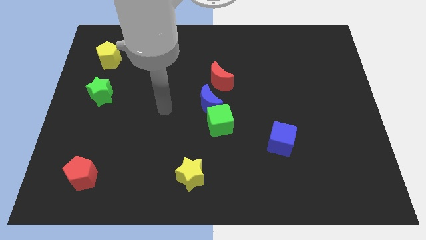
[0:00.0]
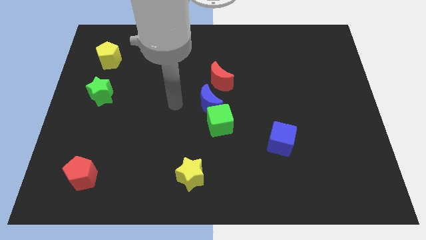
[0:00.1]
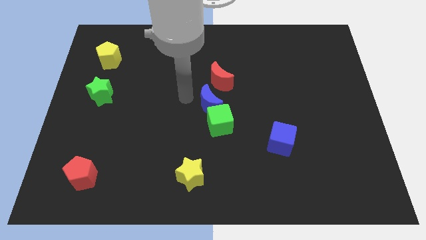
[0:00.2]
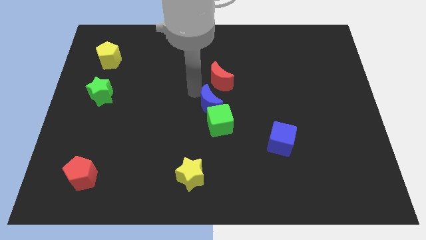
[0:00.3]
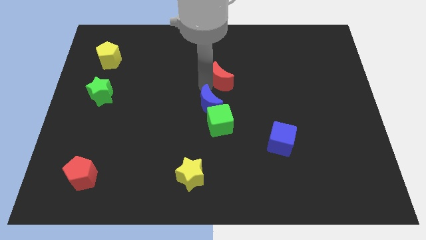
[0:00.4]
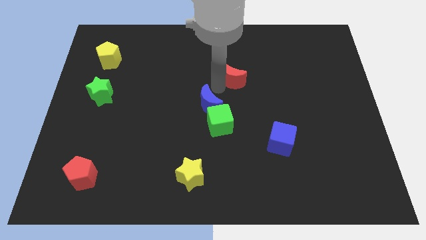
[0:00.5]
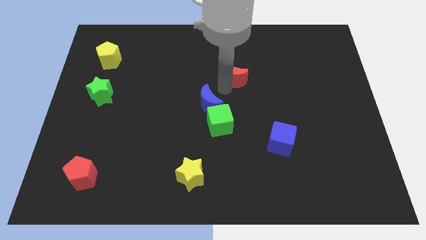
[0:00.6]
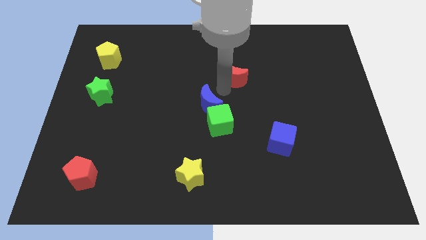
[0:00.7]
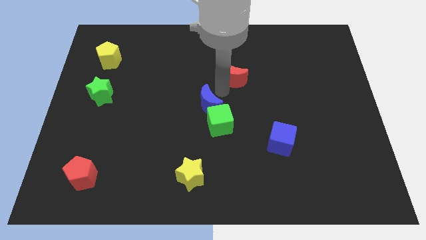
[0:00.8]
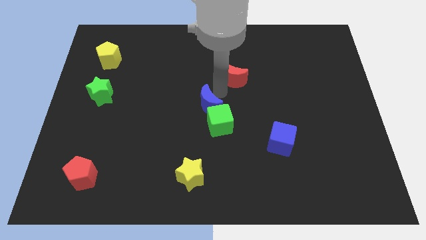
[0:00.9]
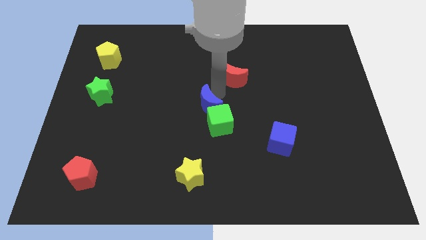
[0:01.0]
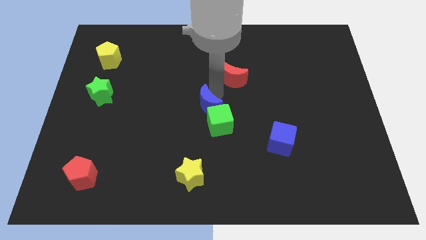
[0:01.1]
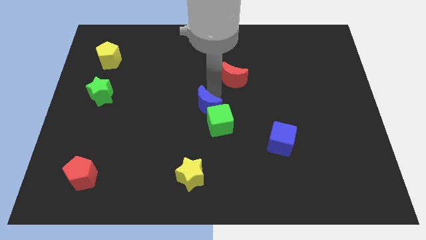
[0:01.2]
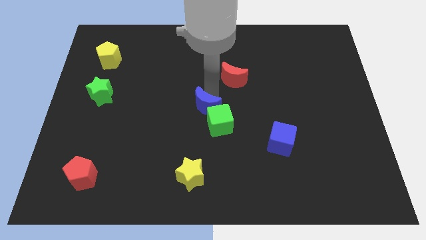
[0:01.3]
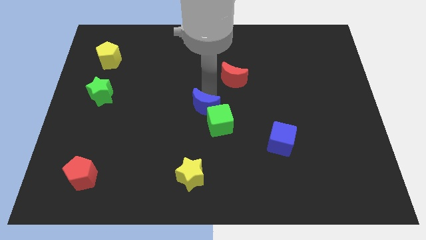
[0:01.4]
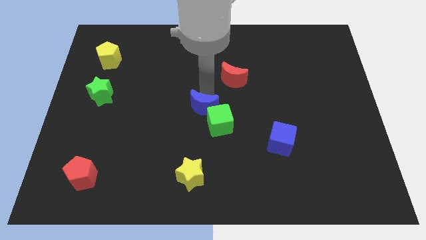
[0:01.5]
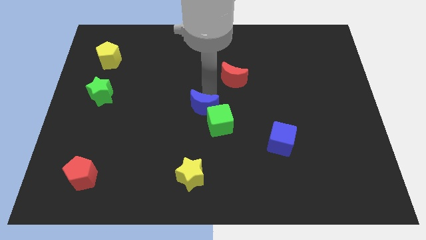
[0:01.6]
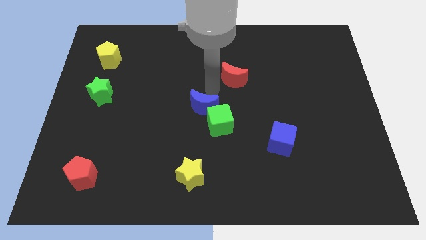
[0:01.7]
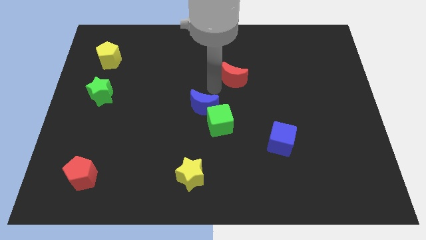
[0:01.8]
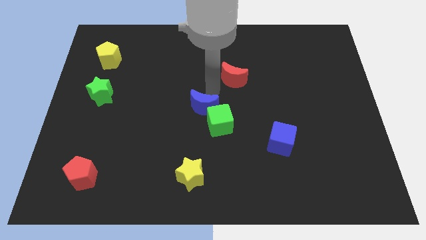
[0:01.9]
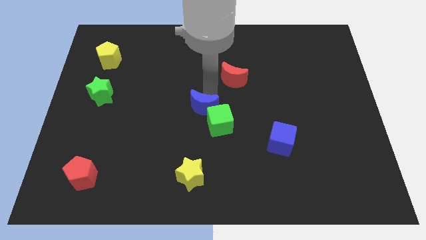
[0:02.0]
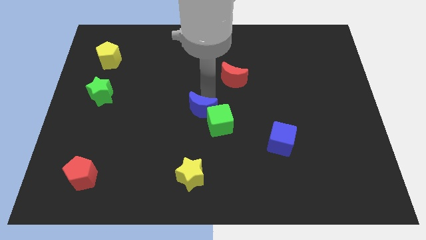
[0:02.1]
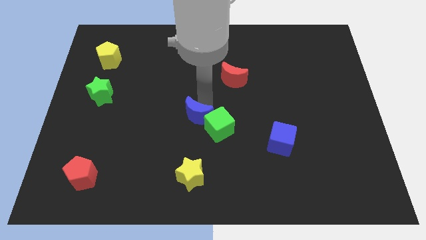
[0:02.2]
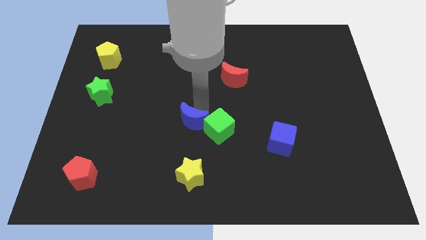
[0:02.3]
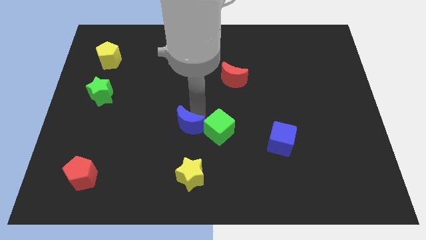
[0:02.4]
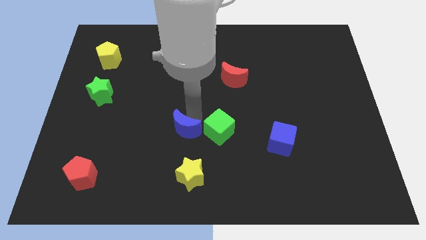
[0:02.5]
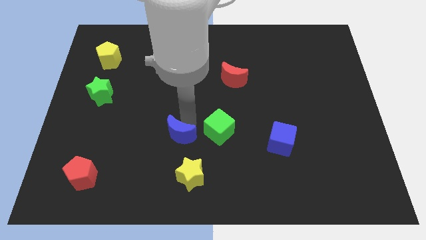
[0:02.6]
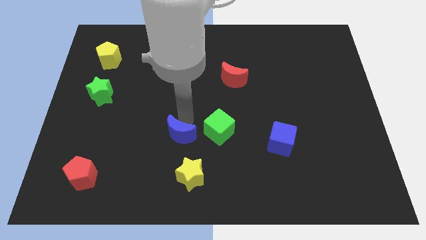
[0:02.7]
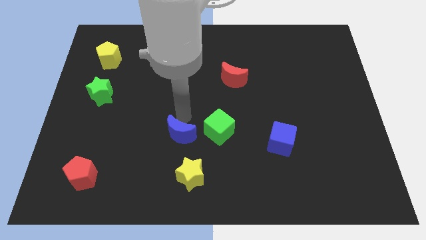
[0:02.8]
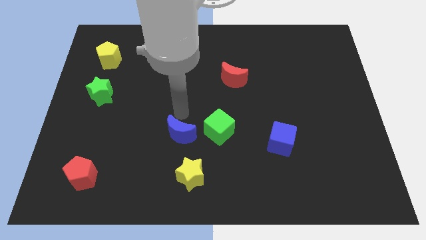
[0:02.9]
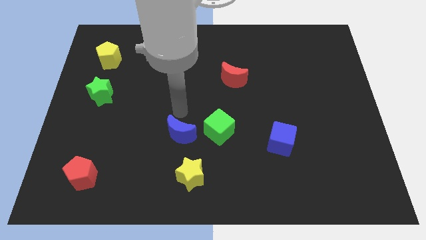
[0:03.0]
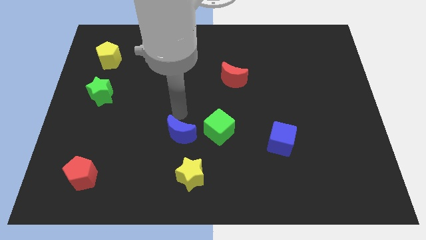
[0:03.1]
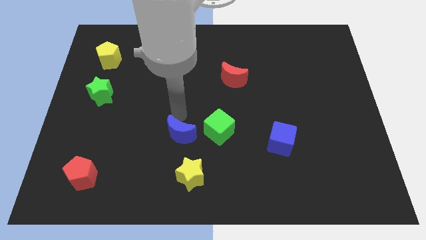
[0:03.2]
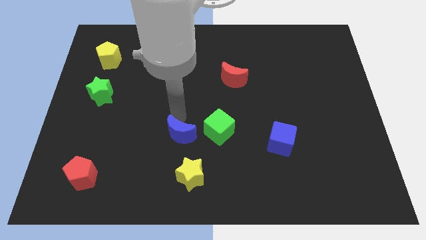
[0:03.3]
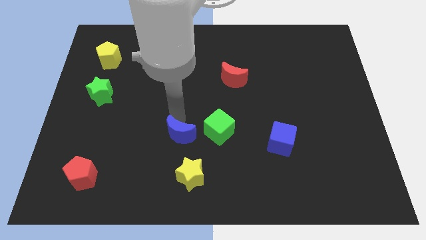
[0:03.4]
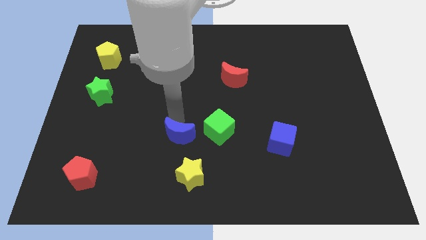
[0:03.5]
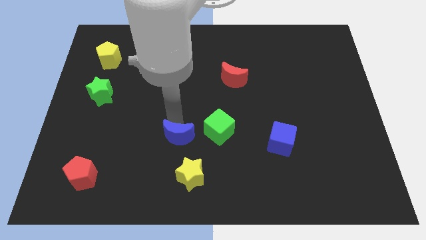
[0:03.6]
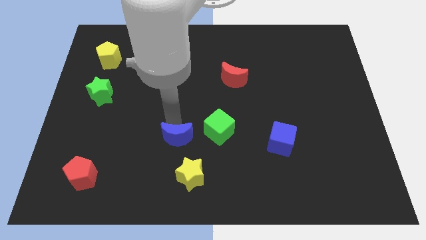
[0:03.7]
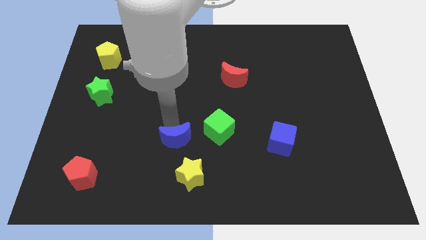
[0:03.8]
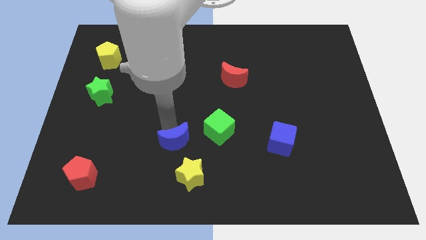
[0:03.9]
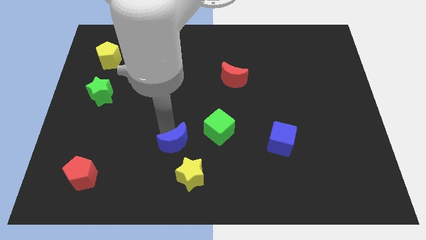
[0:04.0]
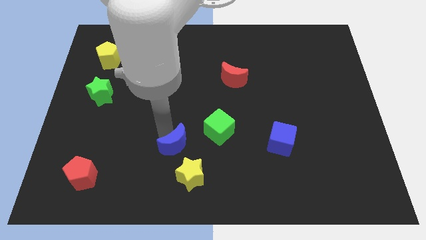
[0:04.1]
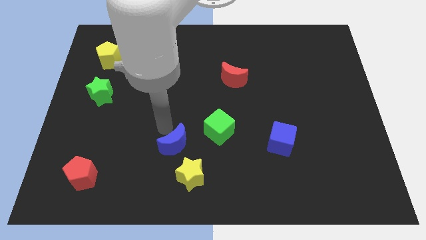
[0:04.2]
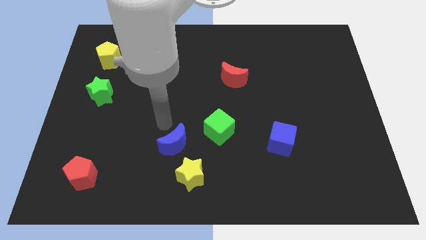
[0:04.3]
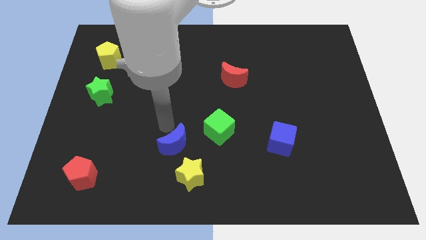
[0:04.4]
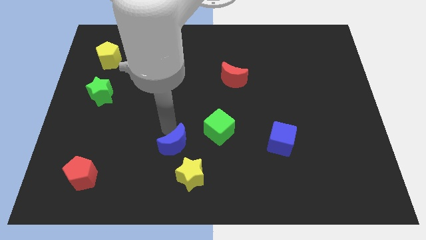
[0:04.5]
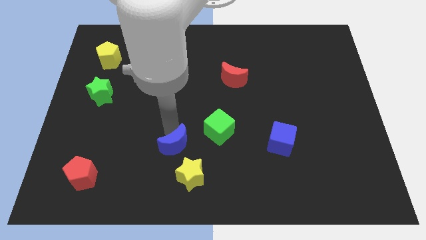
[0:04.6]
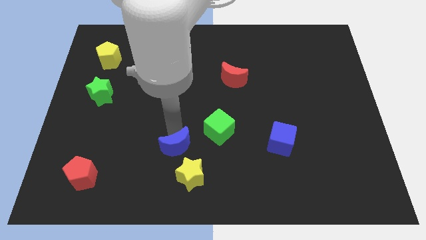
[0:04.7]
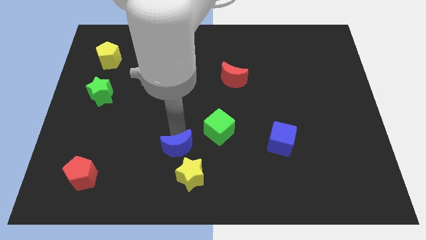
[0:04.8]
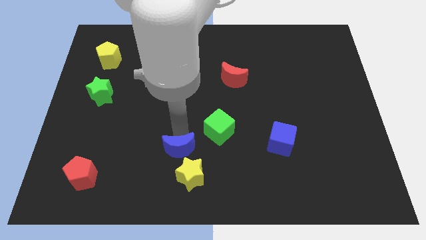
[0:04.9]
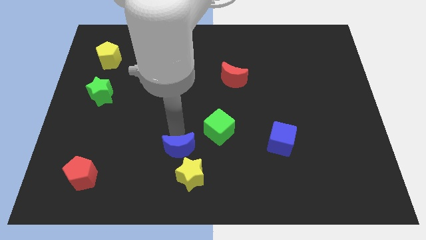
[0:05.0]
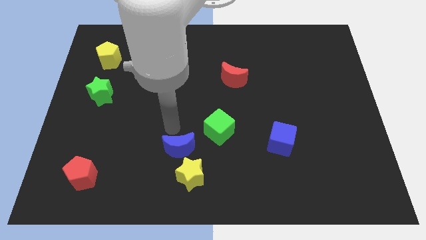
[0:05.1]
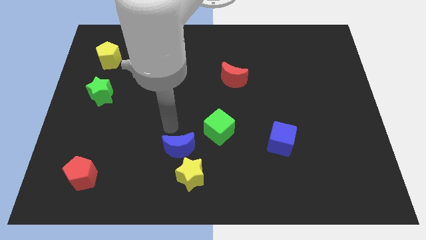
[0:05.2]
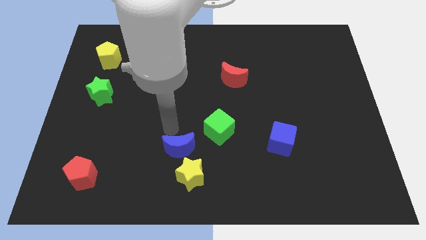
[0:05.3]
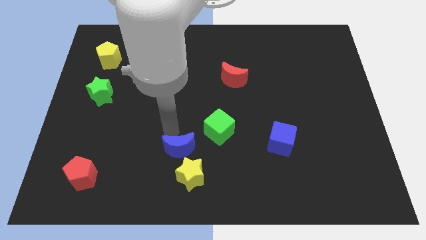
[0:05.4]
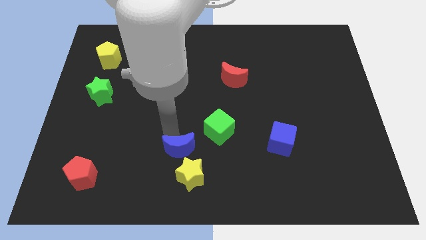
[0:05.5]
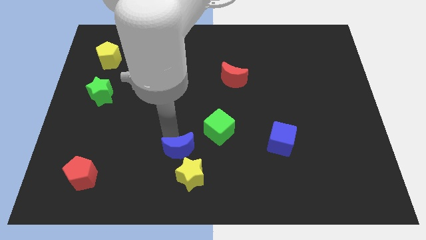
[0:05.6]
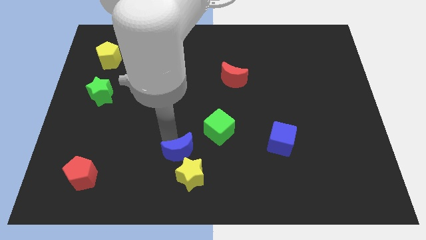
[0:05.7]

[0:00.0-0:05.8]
slide the blue moon to the yellow star

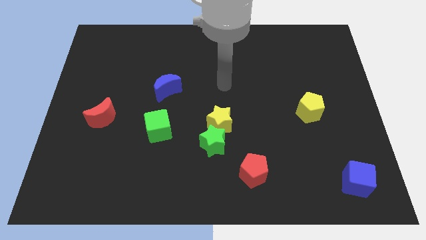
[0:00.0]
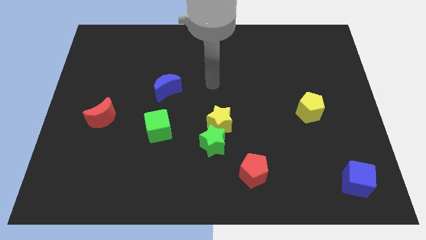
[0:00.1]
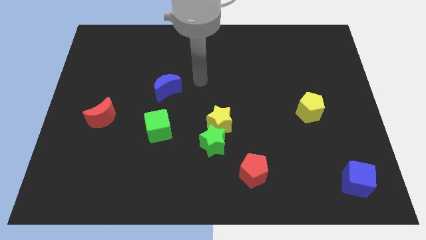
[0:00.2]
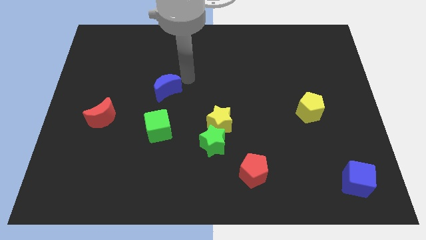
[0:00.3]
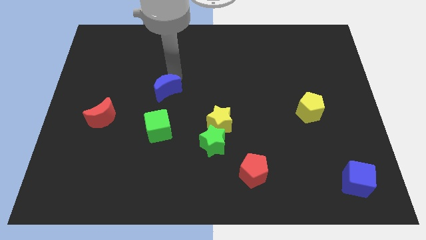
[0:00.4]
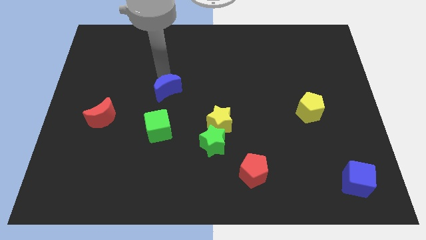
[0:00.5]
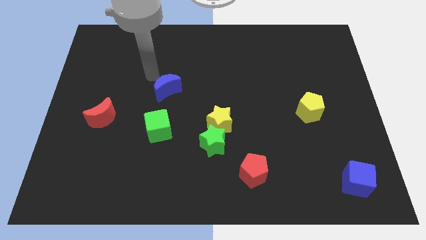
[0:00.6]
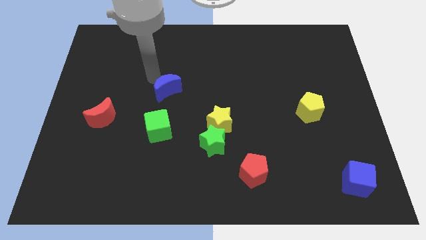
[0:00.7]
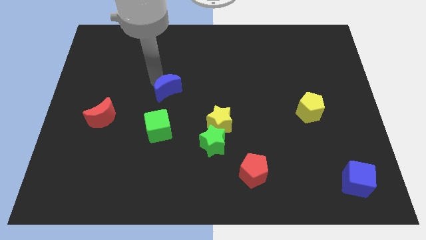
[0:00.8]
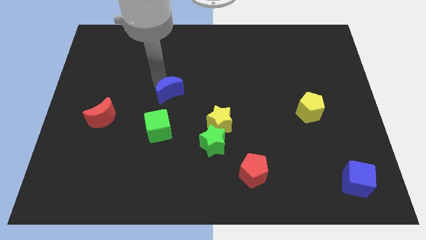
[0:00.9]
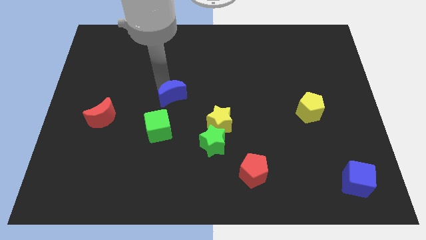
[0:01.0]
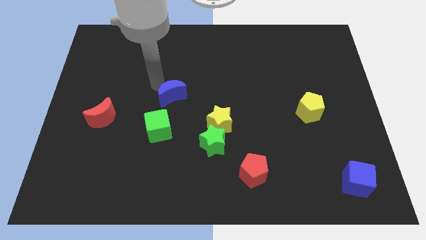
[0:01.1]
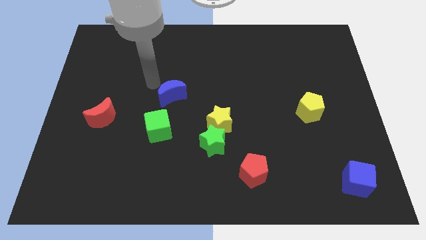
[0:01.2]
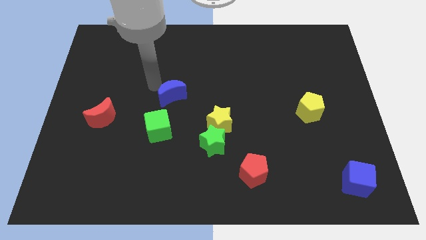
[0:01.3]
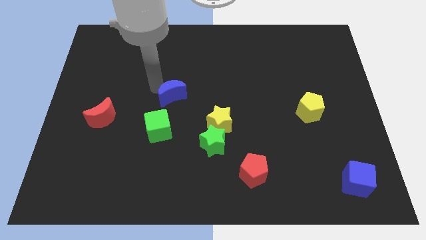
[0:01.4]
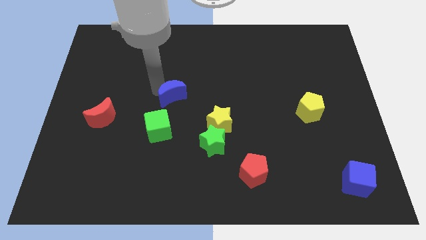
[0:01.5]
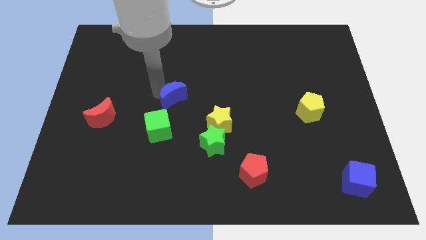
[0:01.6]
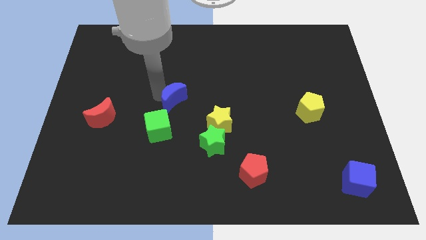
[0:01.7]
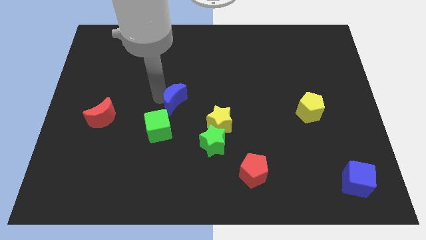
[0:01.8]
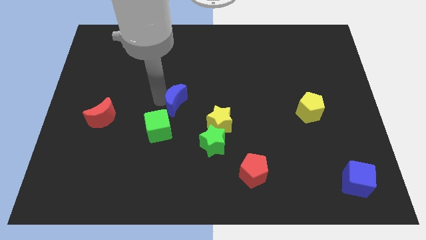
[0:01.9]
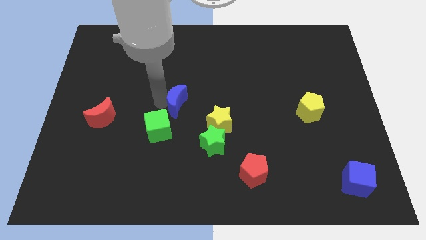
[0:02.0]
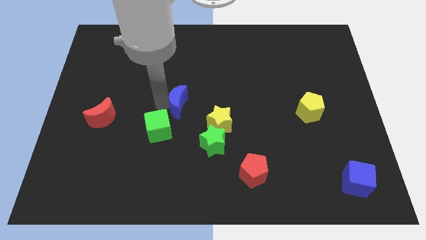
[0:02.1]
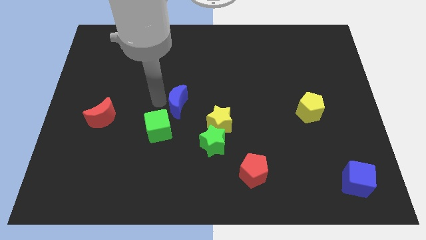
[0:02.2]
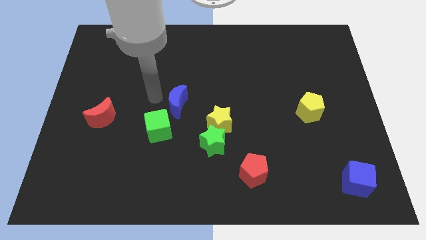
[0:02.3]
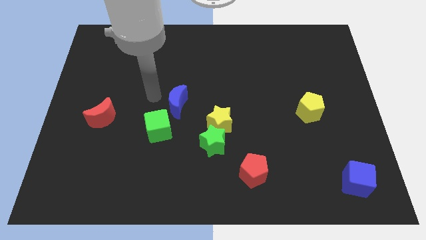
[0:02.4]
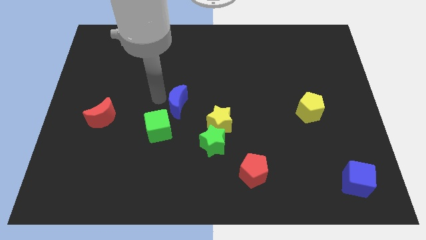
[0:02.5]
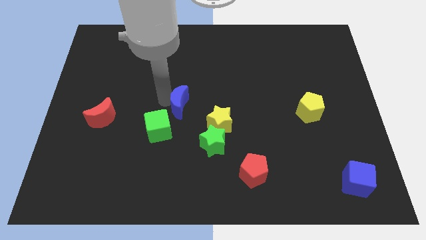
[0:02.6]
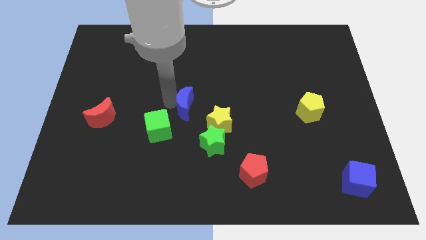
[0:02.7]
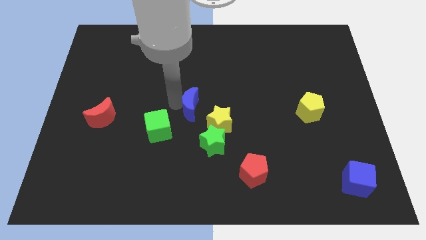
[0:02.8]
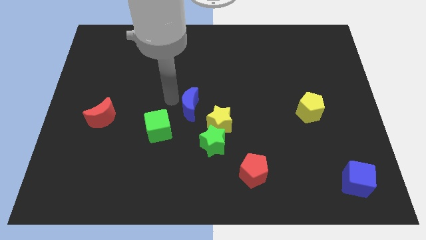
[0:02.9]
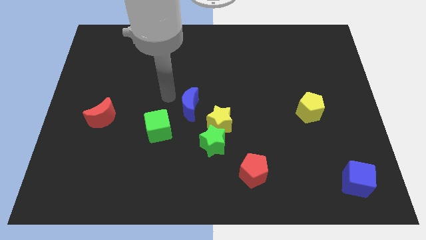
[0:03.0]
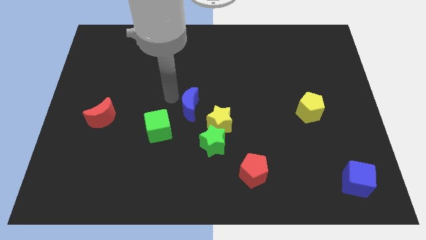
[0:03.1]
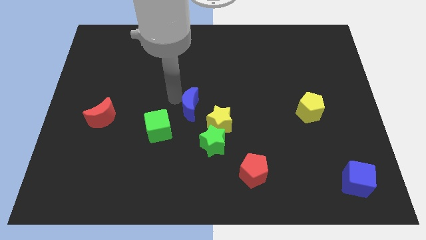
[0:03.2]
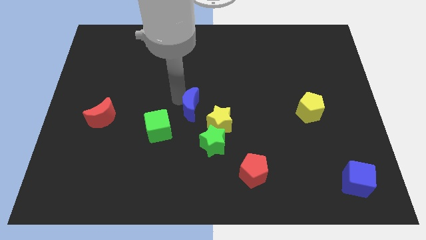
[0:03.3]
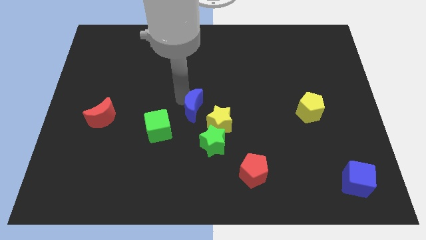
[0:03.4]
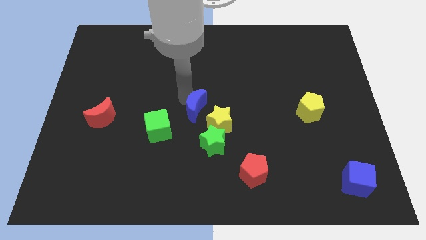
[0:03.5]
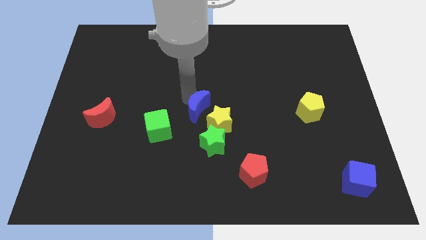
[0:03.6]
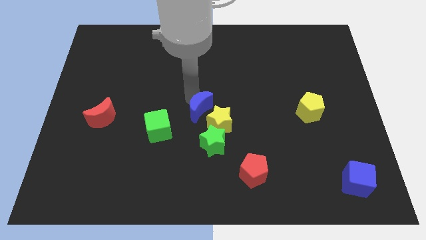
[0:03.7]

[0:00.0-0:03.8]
put the blue moon towards the yellow star
